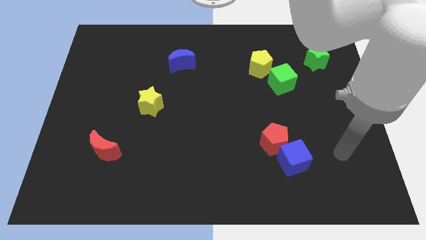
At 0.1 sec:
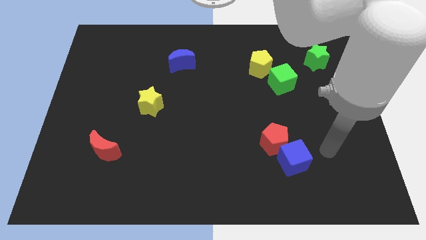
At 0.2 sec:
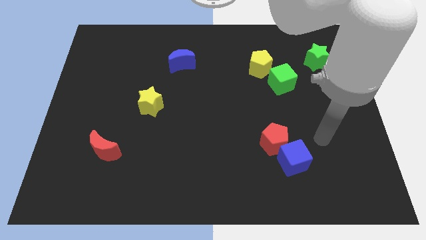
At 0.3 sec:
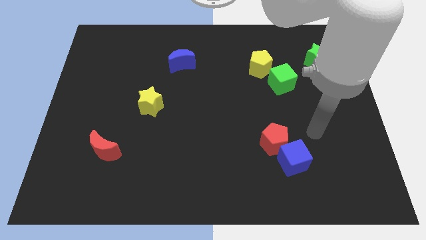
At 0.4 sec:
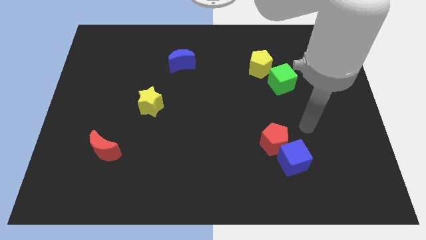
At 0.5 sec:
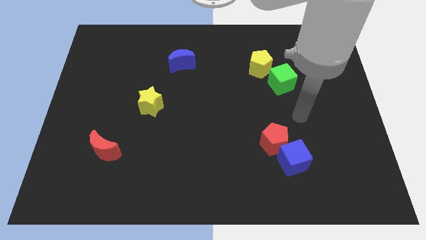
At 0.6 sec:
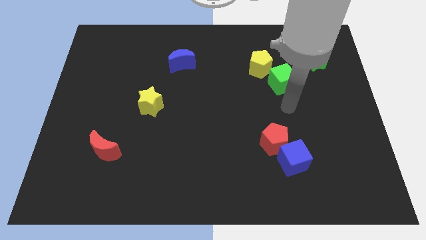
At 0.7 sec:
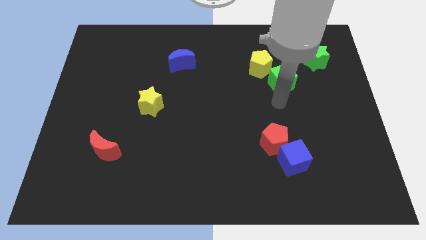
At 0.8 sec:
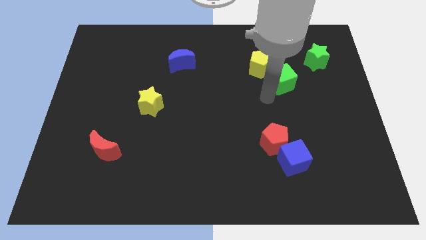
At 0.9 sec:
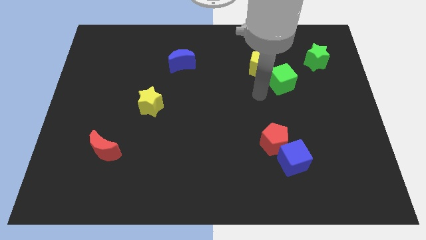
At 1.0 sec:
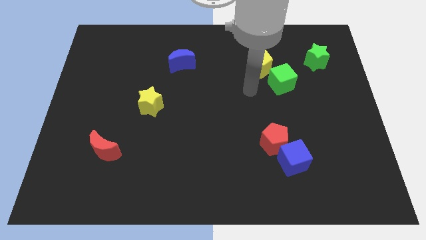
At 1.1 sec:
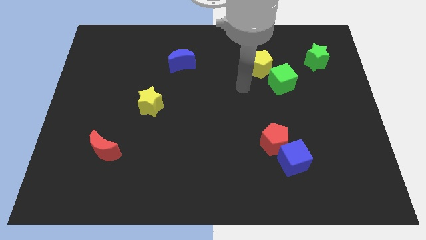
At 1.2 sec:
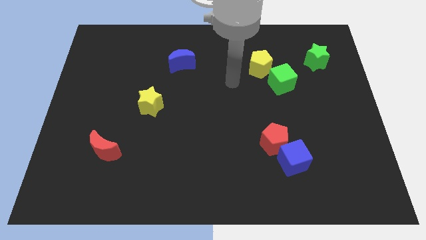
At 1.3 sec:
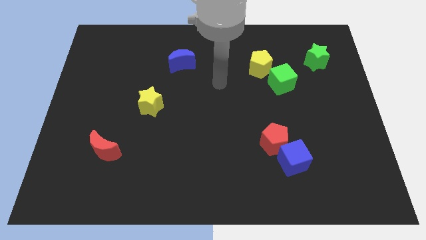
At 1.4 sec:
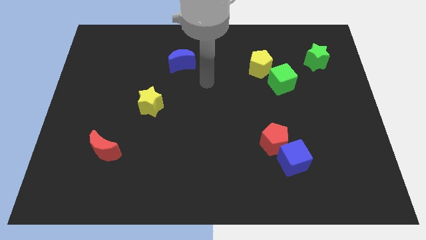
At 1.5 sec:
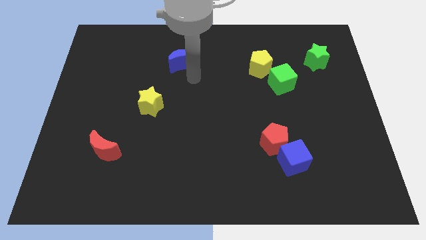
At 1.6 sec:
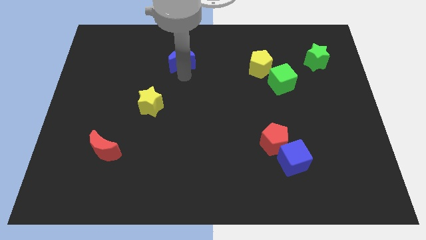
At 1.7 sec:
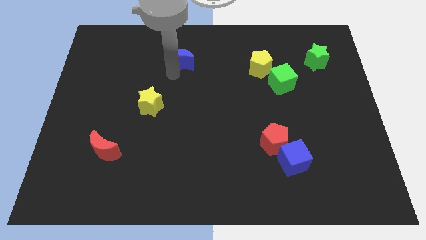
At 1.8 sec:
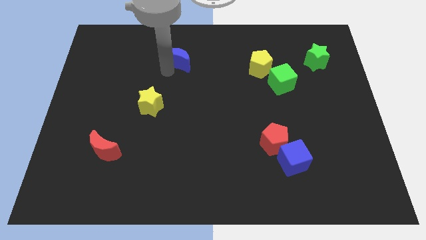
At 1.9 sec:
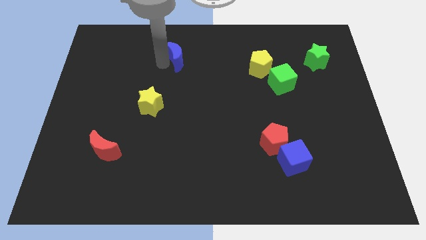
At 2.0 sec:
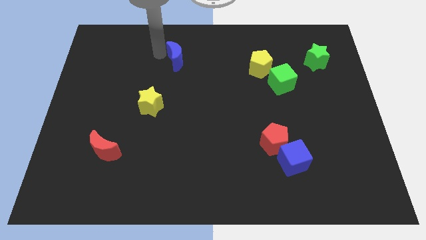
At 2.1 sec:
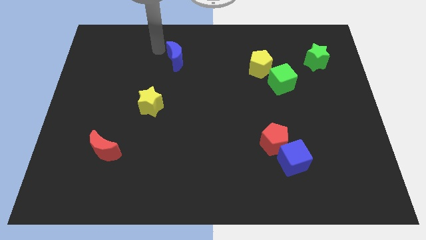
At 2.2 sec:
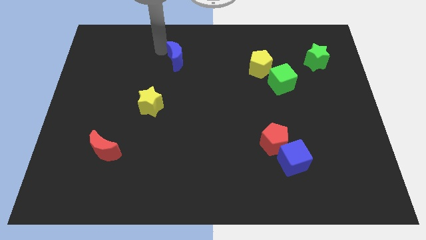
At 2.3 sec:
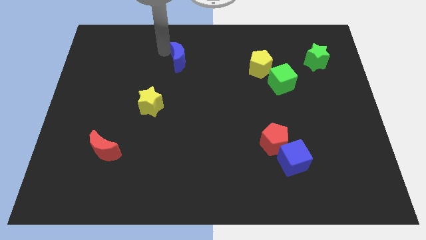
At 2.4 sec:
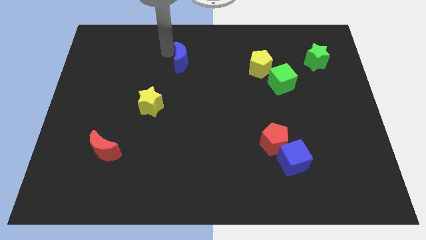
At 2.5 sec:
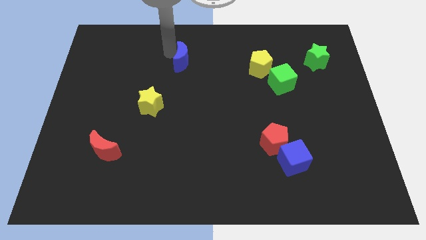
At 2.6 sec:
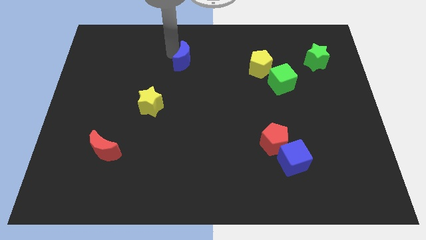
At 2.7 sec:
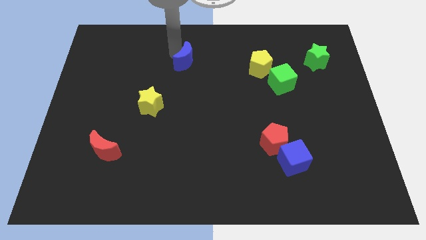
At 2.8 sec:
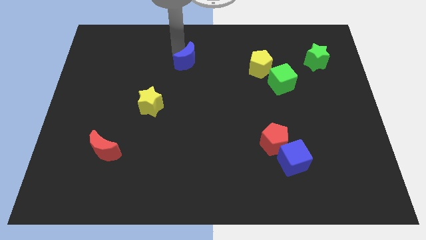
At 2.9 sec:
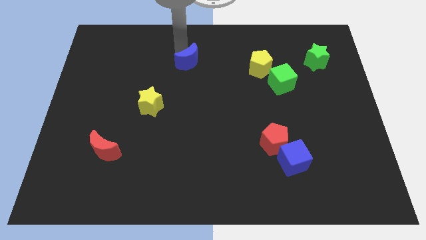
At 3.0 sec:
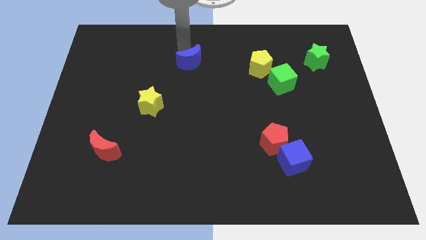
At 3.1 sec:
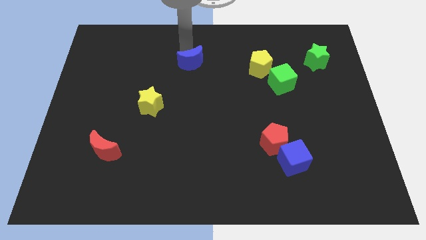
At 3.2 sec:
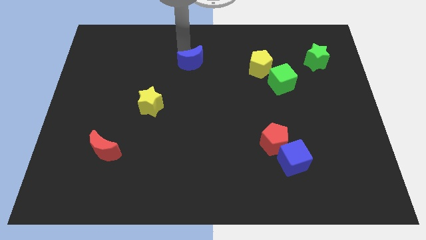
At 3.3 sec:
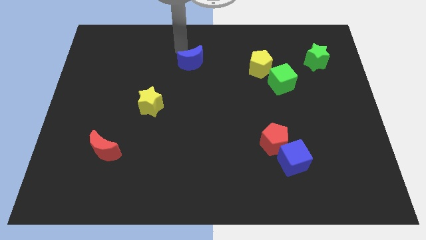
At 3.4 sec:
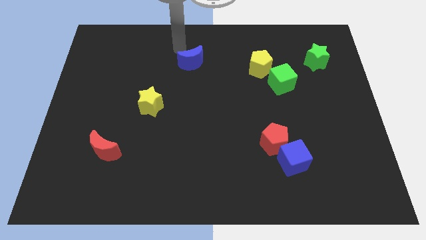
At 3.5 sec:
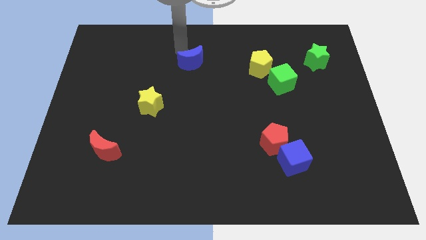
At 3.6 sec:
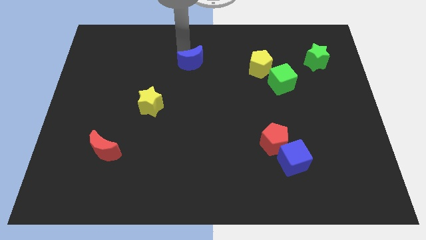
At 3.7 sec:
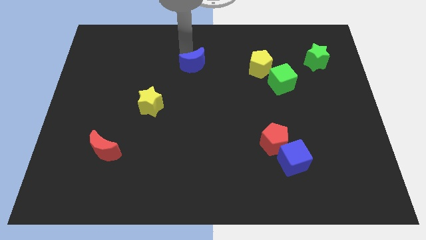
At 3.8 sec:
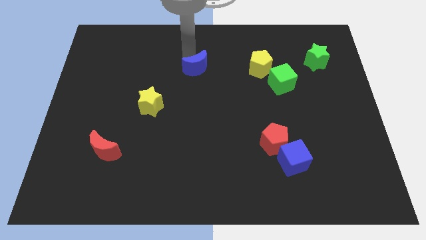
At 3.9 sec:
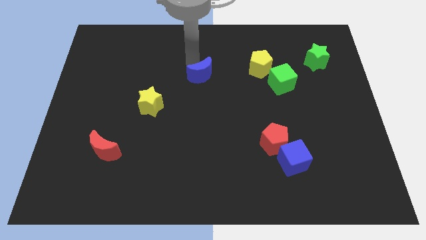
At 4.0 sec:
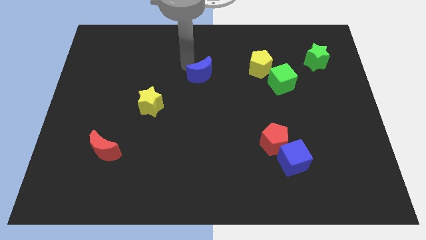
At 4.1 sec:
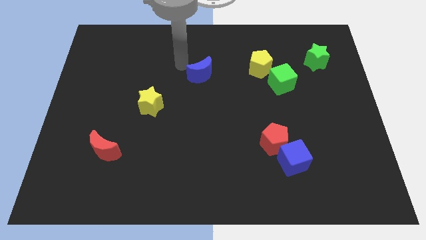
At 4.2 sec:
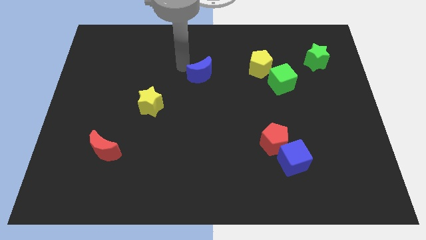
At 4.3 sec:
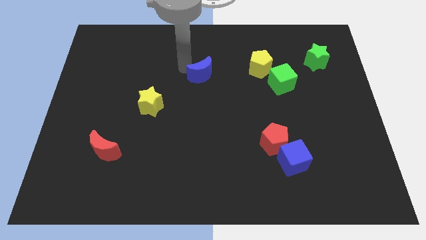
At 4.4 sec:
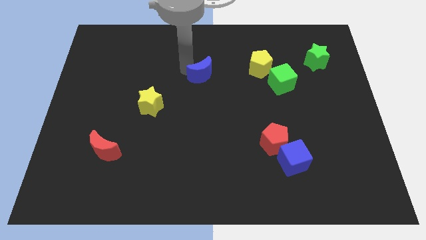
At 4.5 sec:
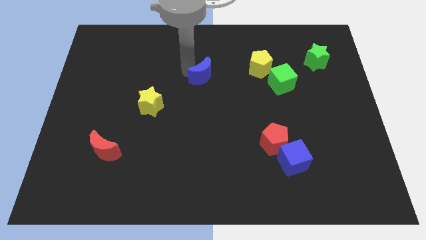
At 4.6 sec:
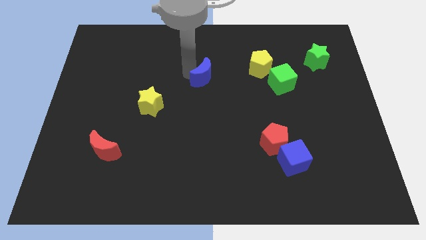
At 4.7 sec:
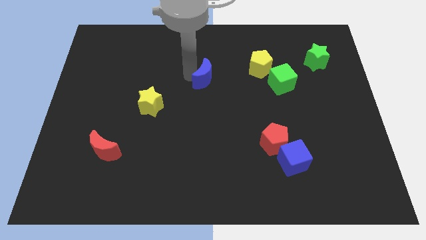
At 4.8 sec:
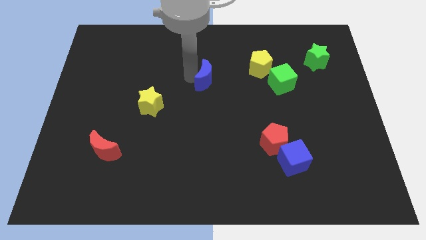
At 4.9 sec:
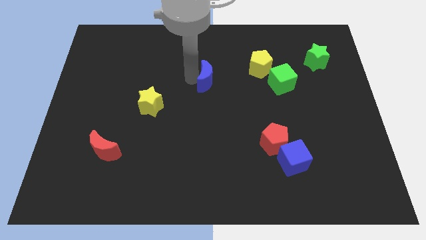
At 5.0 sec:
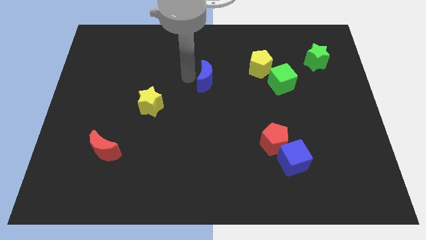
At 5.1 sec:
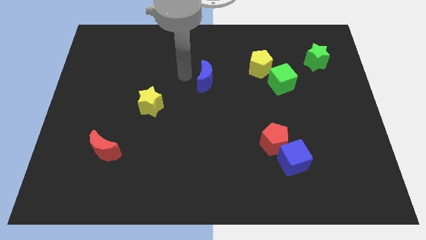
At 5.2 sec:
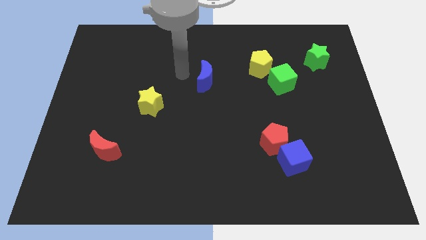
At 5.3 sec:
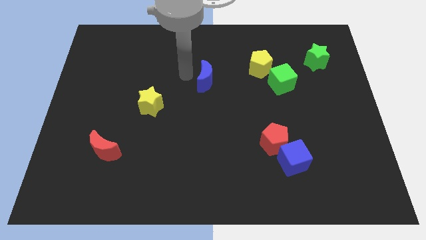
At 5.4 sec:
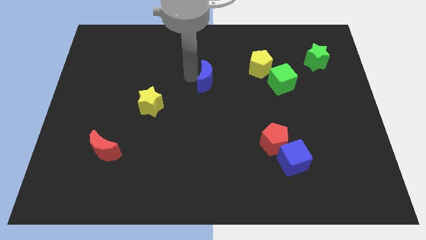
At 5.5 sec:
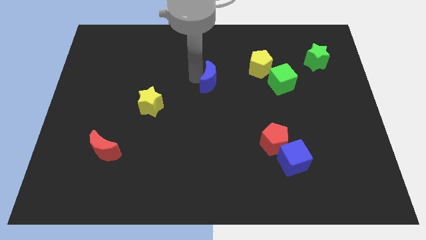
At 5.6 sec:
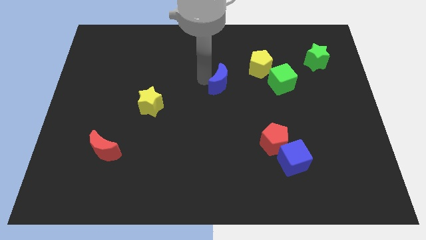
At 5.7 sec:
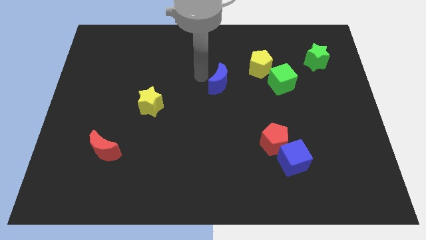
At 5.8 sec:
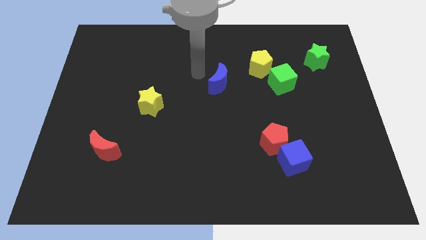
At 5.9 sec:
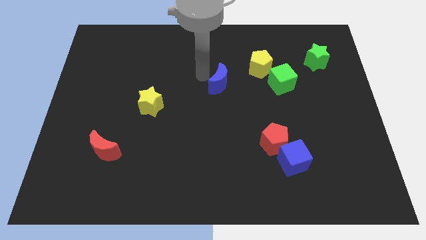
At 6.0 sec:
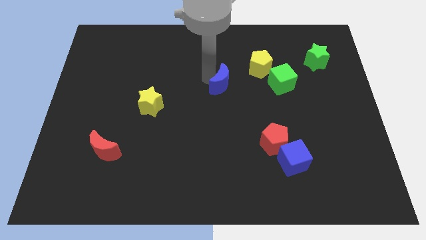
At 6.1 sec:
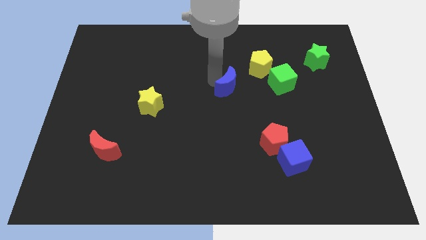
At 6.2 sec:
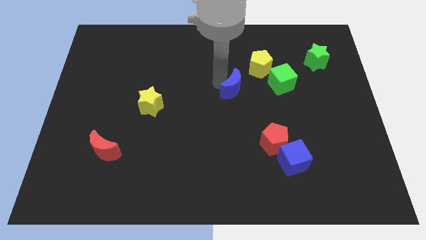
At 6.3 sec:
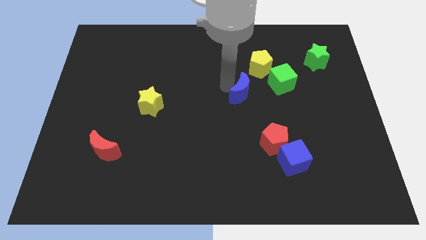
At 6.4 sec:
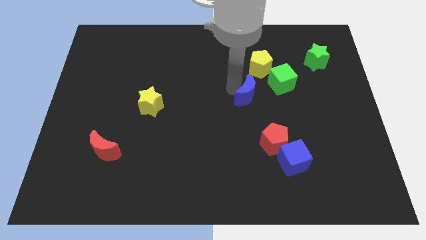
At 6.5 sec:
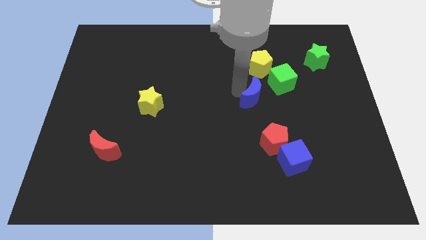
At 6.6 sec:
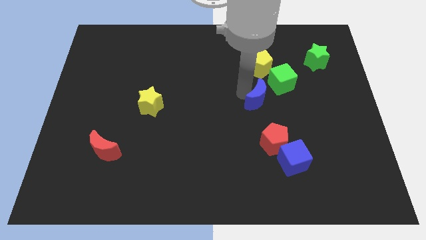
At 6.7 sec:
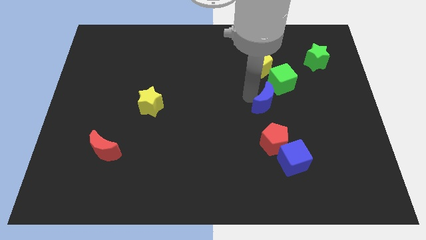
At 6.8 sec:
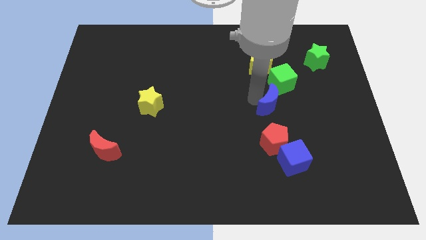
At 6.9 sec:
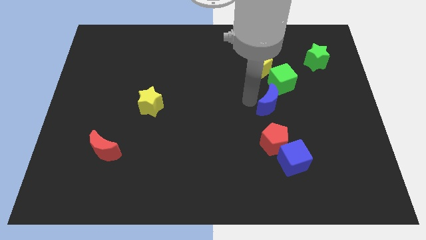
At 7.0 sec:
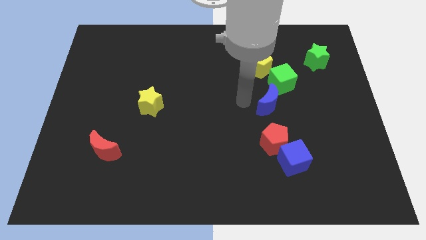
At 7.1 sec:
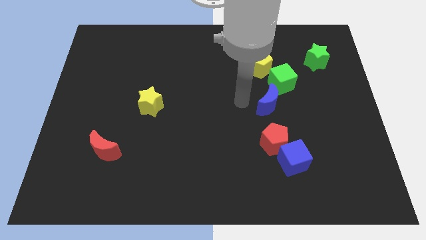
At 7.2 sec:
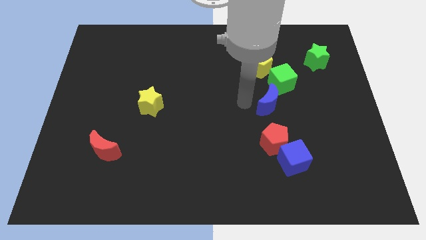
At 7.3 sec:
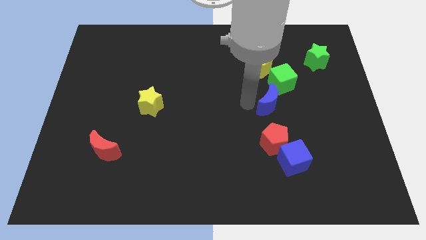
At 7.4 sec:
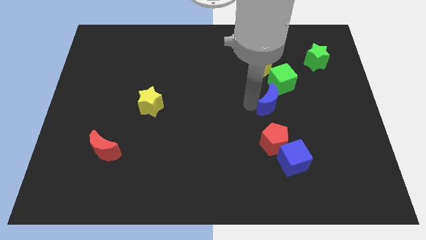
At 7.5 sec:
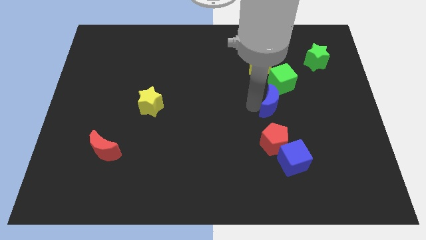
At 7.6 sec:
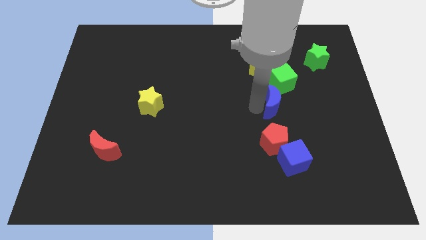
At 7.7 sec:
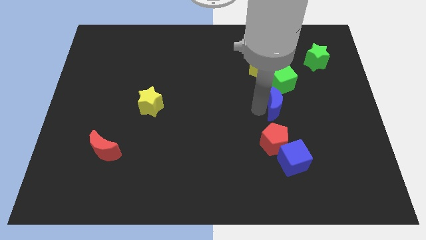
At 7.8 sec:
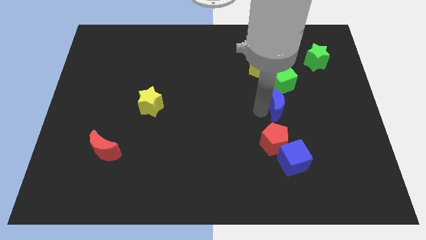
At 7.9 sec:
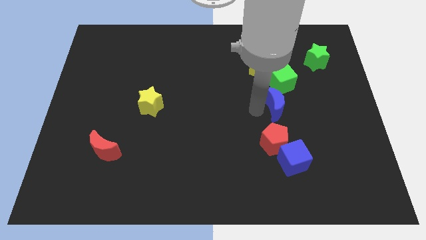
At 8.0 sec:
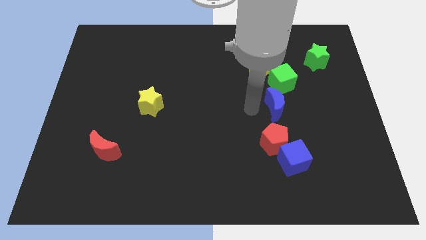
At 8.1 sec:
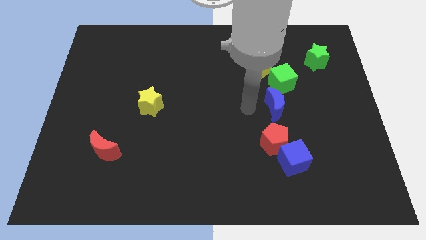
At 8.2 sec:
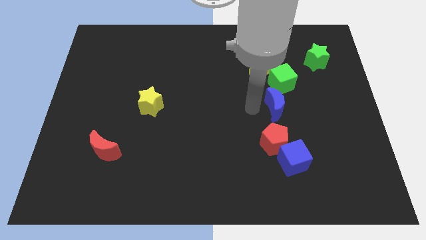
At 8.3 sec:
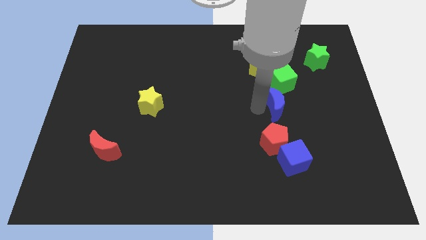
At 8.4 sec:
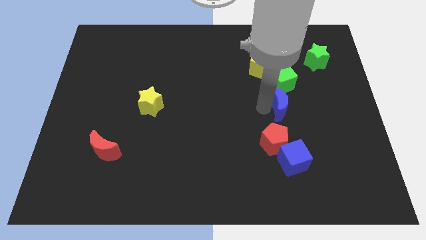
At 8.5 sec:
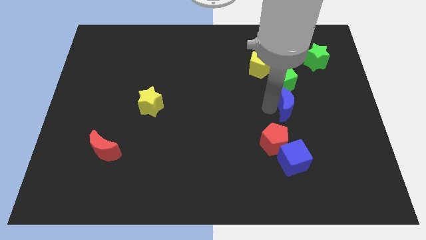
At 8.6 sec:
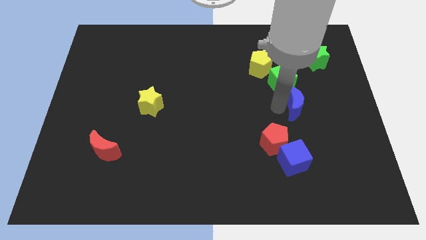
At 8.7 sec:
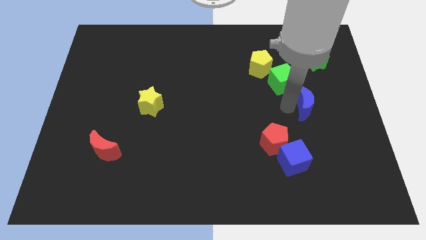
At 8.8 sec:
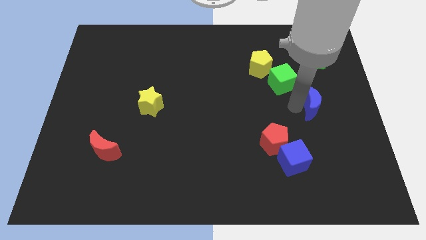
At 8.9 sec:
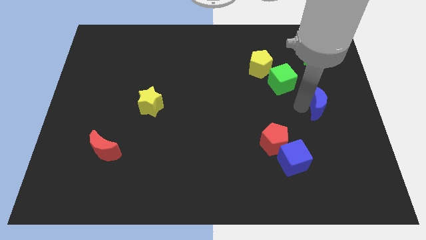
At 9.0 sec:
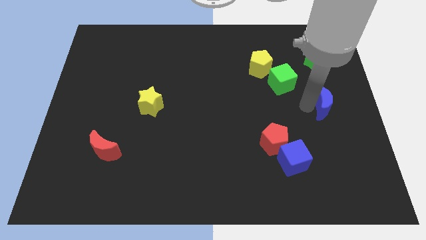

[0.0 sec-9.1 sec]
move the blue moon to the center right
